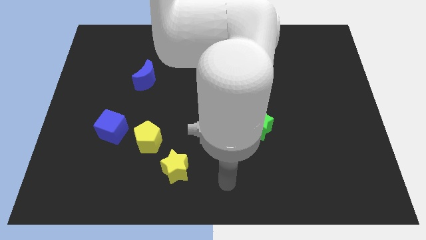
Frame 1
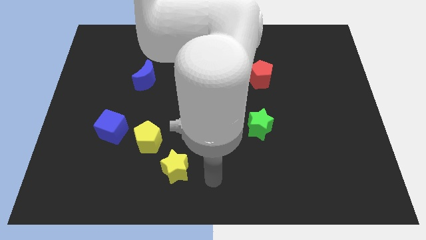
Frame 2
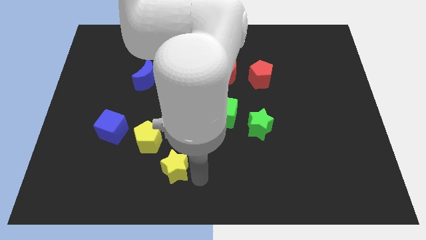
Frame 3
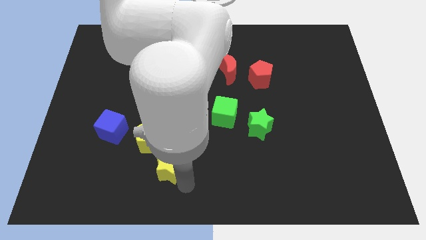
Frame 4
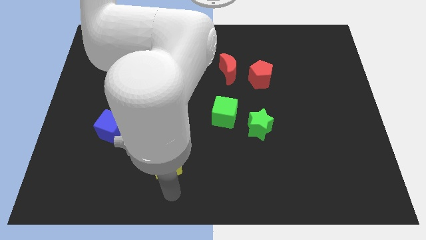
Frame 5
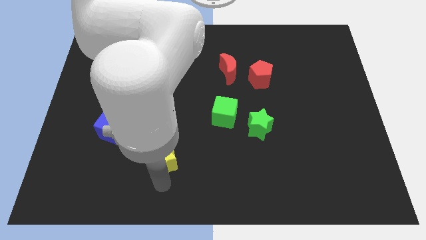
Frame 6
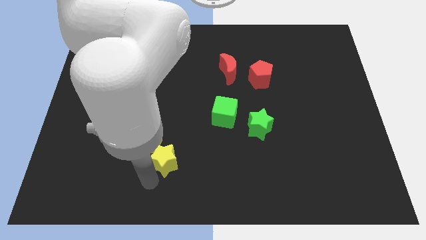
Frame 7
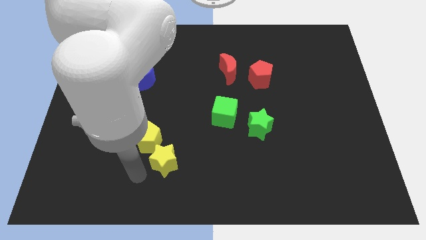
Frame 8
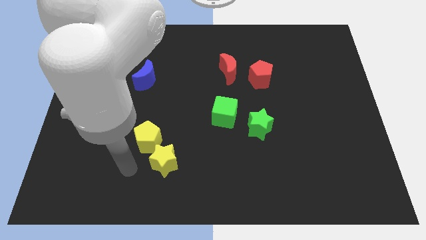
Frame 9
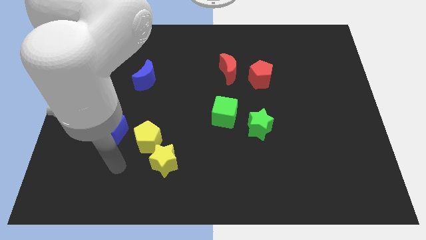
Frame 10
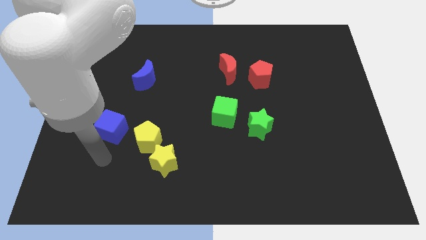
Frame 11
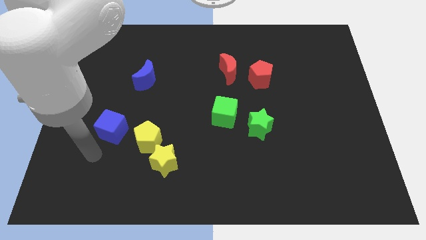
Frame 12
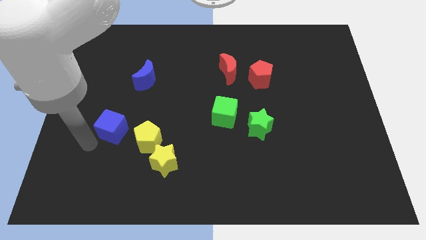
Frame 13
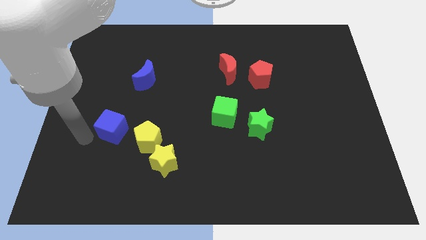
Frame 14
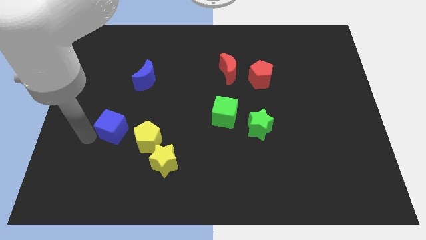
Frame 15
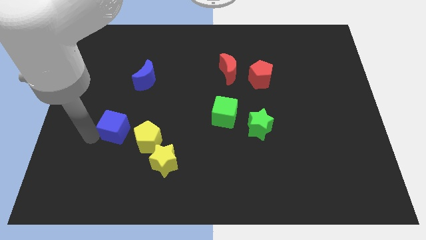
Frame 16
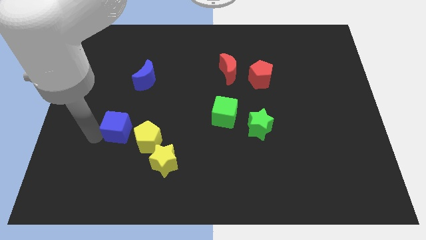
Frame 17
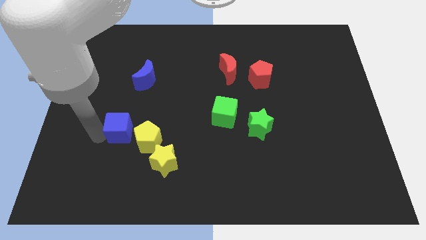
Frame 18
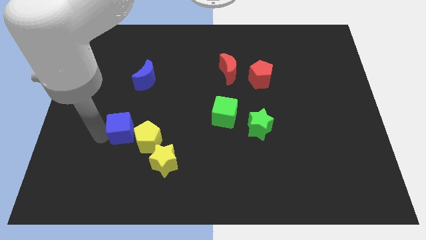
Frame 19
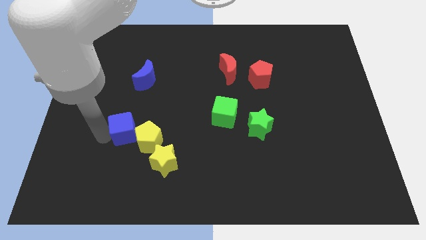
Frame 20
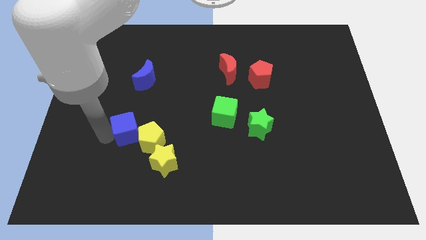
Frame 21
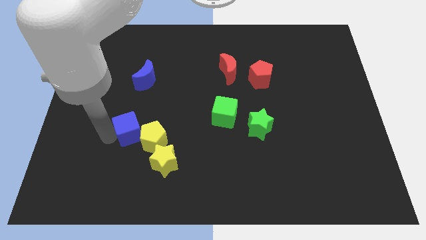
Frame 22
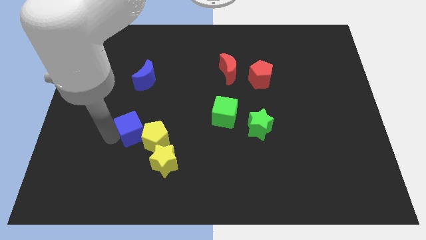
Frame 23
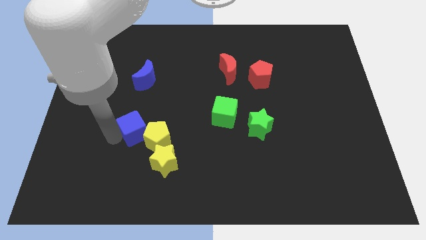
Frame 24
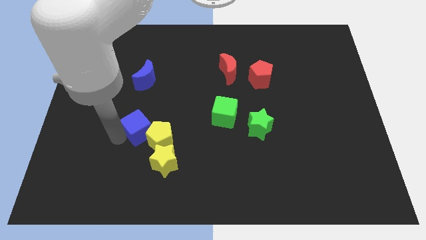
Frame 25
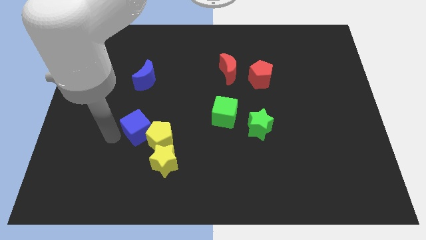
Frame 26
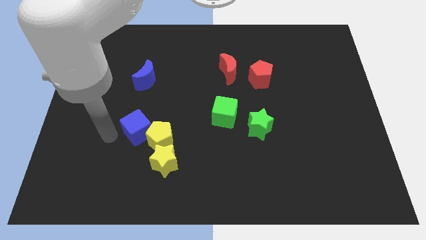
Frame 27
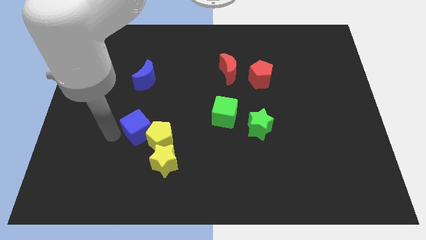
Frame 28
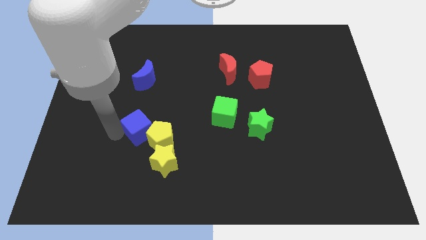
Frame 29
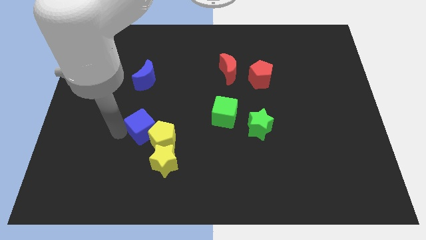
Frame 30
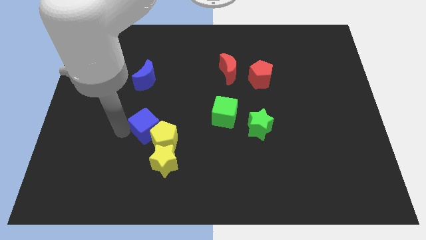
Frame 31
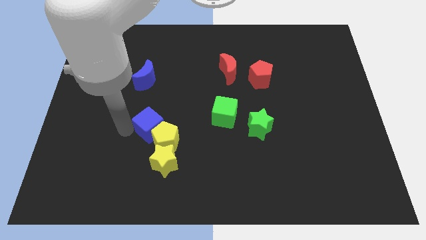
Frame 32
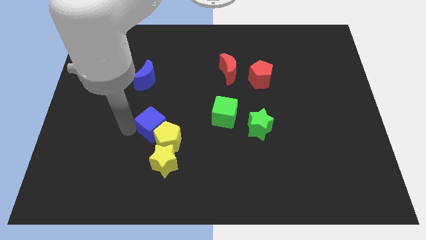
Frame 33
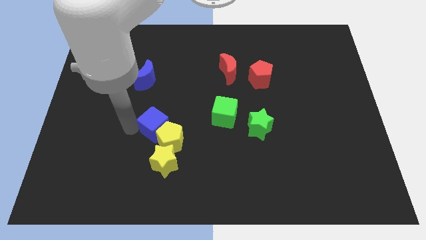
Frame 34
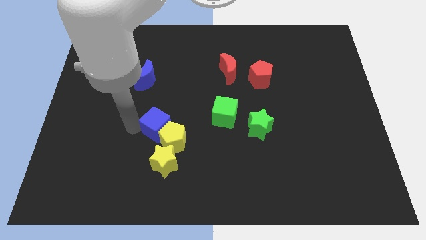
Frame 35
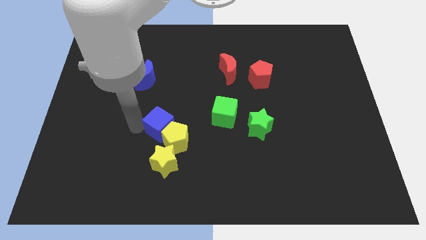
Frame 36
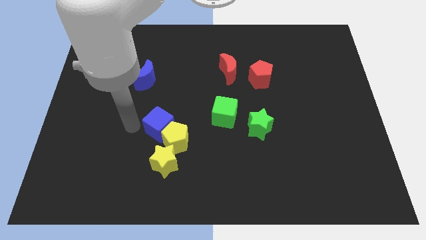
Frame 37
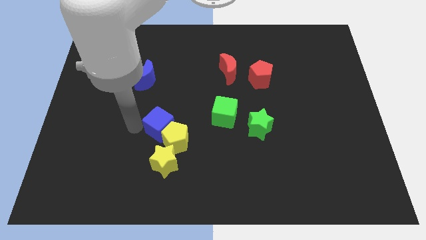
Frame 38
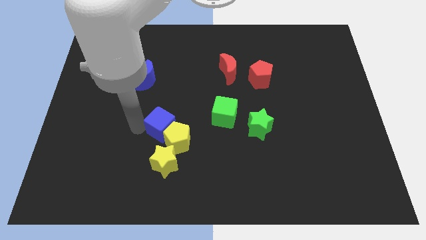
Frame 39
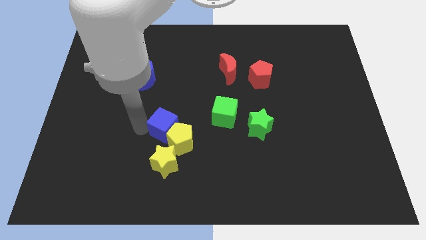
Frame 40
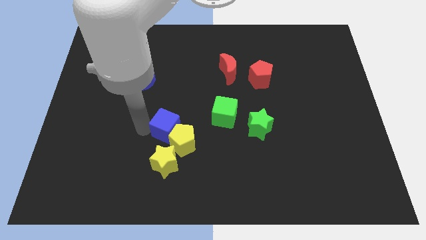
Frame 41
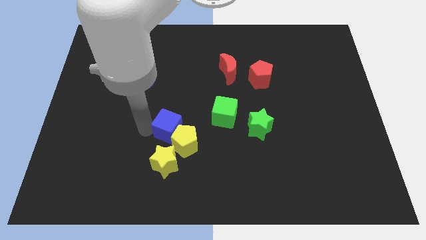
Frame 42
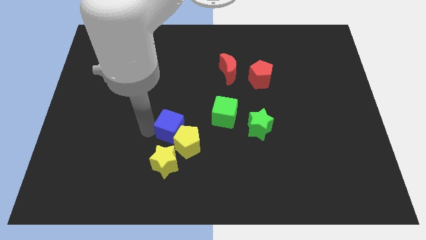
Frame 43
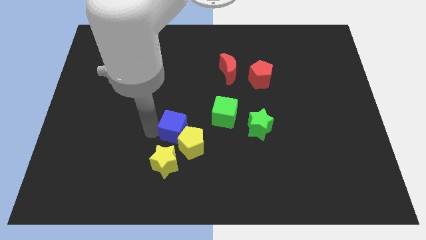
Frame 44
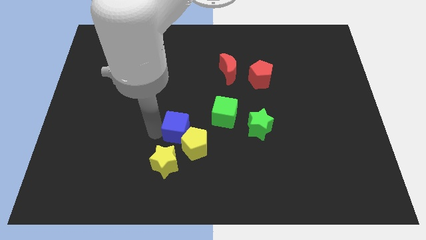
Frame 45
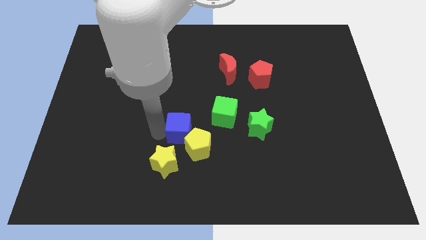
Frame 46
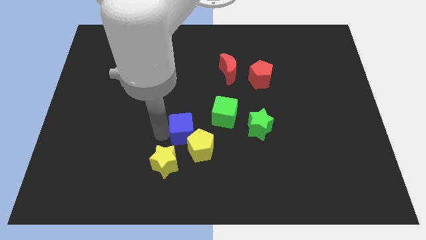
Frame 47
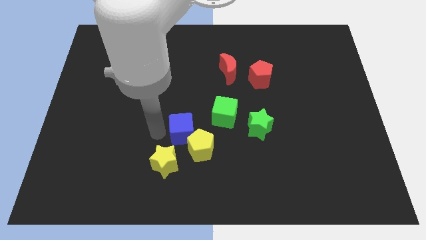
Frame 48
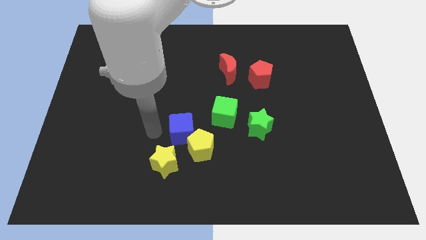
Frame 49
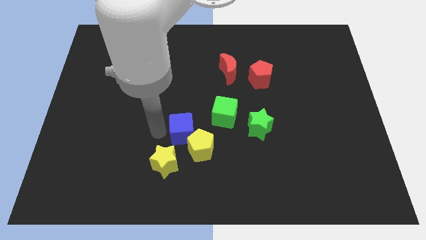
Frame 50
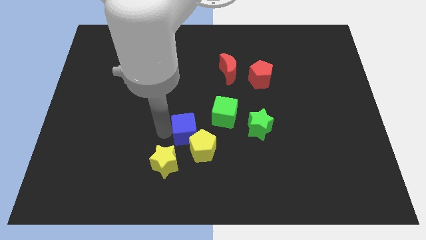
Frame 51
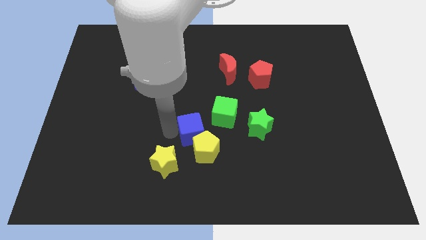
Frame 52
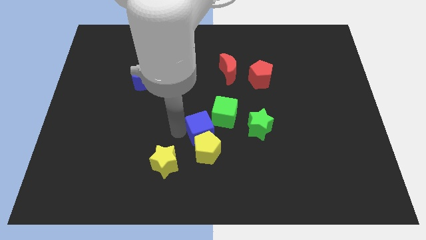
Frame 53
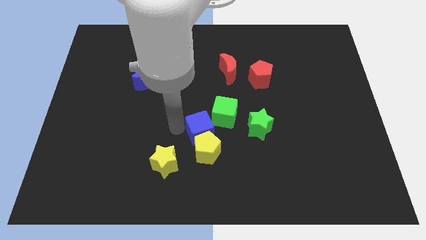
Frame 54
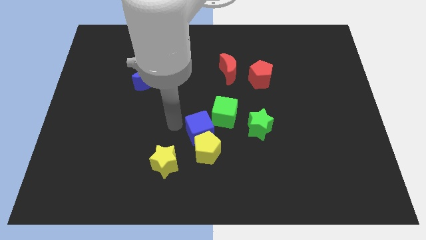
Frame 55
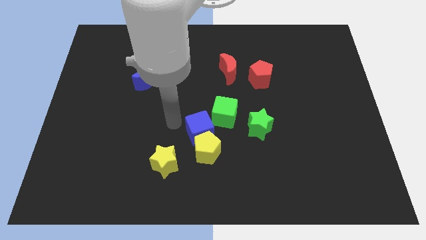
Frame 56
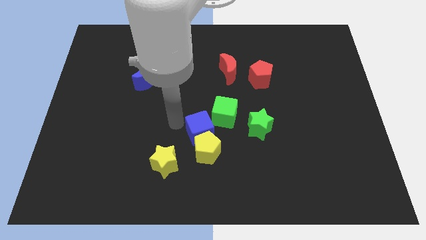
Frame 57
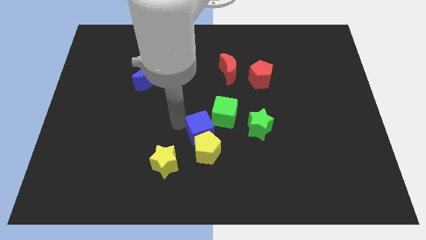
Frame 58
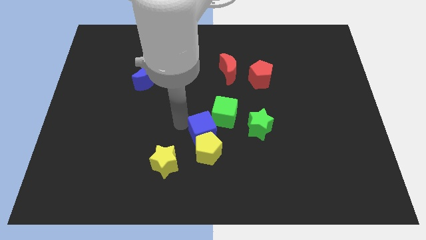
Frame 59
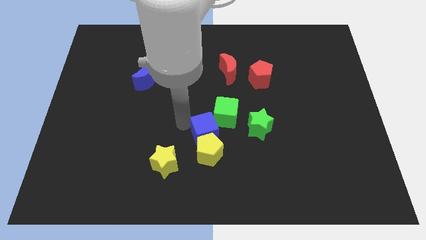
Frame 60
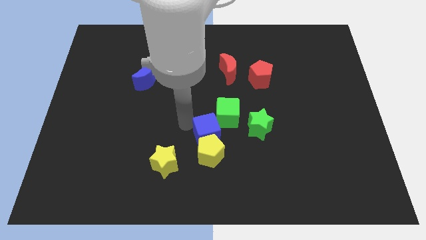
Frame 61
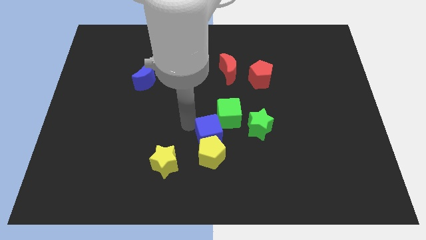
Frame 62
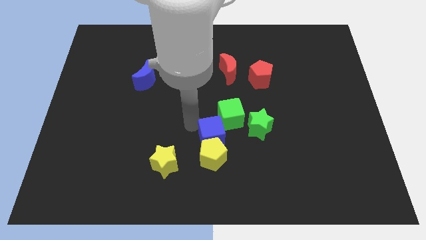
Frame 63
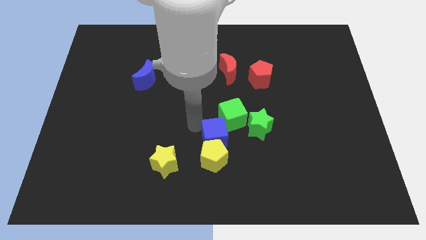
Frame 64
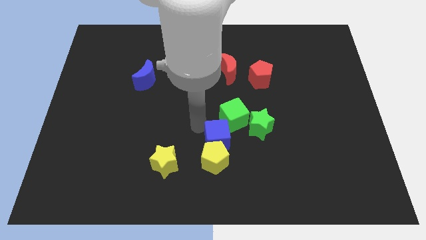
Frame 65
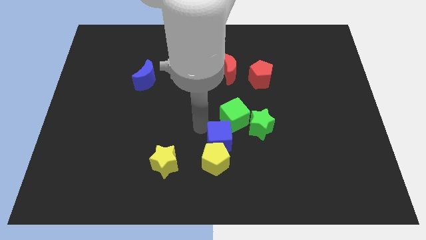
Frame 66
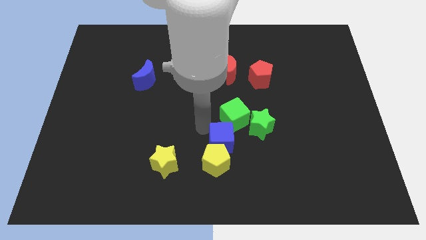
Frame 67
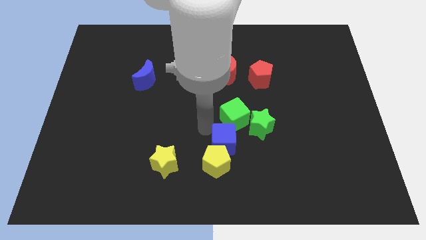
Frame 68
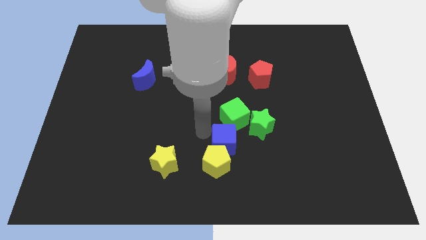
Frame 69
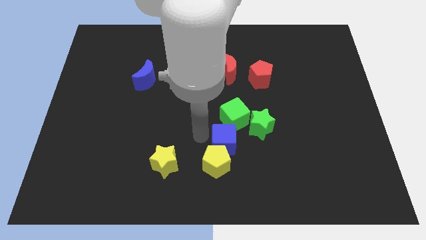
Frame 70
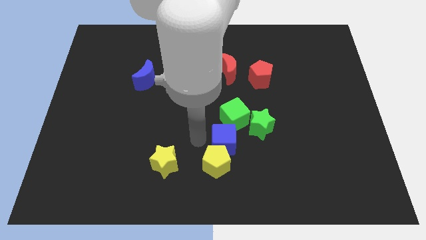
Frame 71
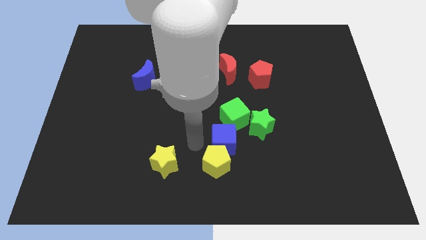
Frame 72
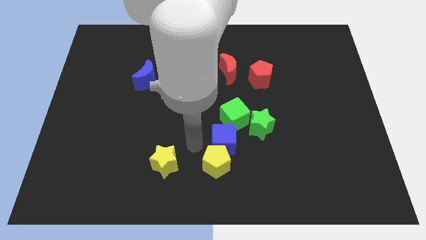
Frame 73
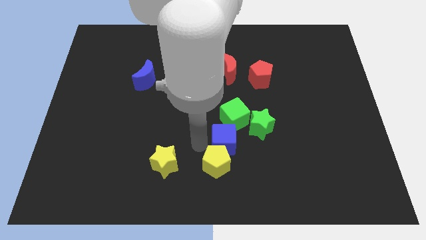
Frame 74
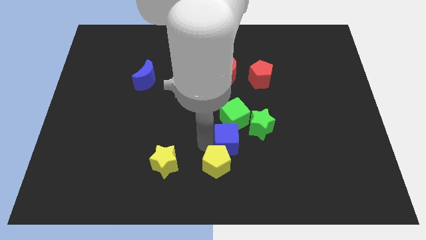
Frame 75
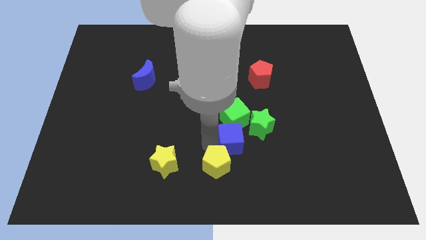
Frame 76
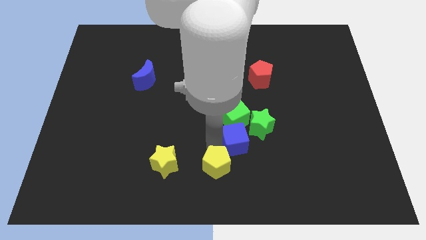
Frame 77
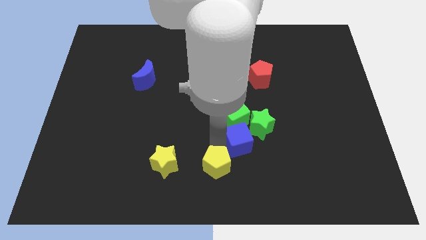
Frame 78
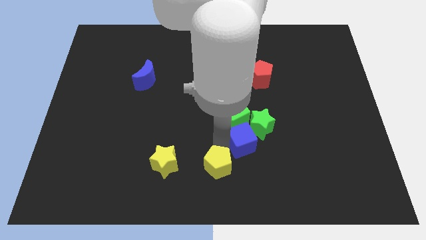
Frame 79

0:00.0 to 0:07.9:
slide the blue cube next to the green star
